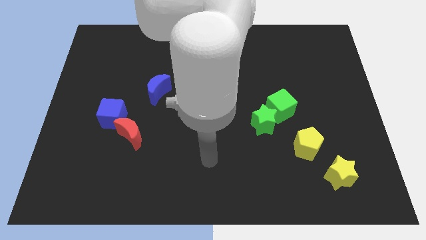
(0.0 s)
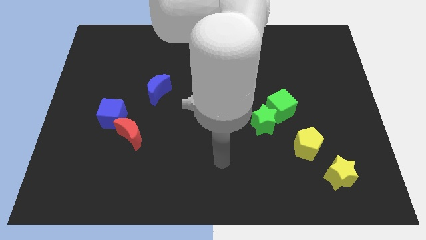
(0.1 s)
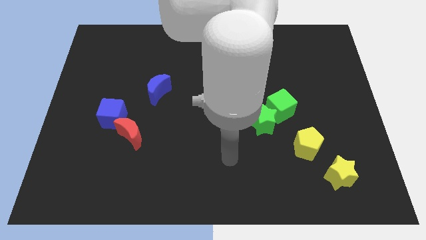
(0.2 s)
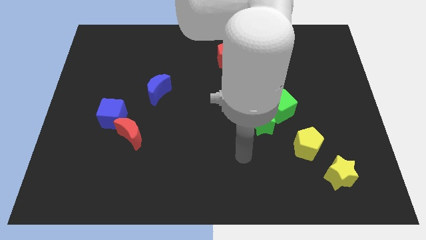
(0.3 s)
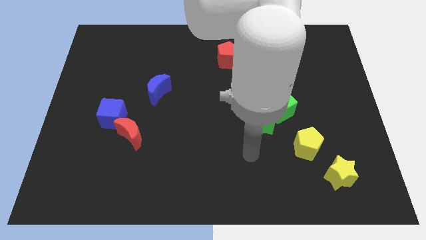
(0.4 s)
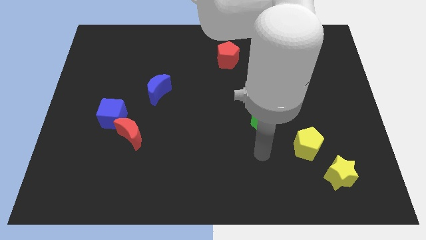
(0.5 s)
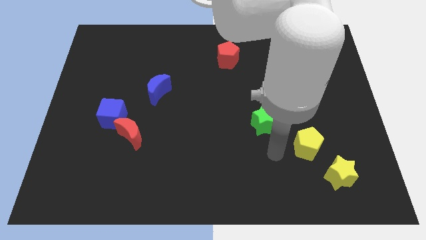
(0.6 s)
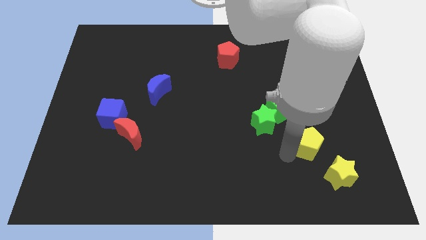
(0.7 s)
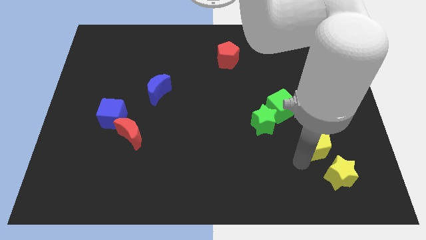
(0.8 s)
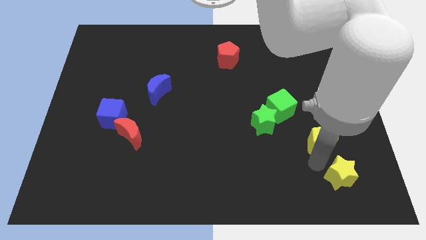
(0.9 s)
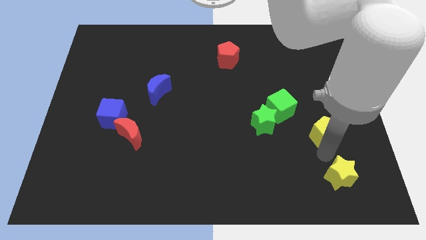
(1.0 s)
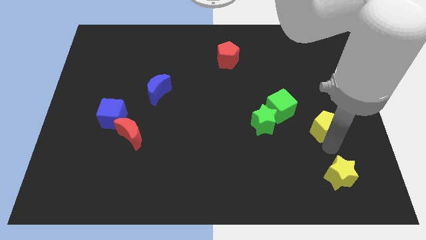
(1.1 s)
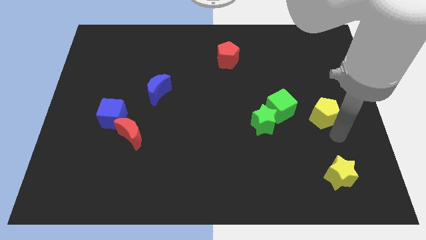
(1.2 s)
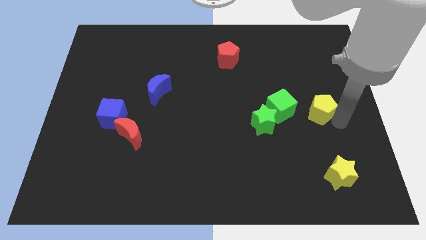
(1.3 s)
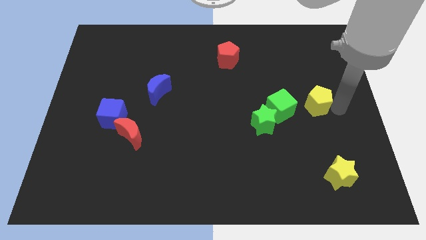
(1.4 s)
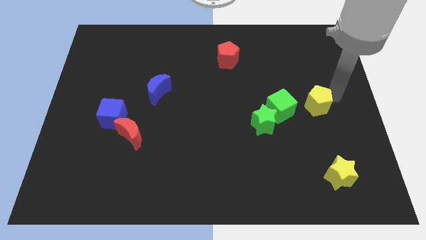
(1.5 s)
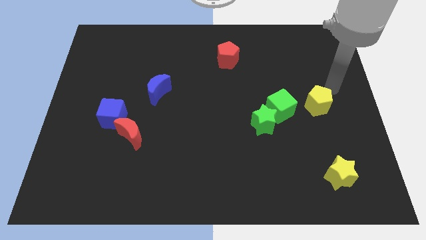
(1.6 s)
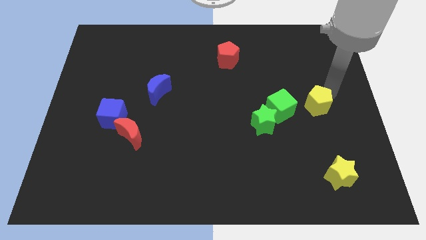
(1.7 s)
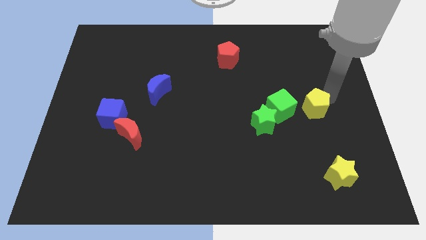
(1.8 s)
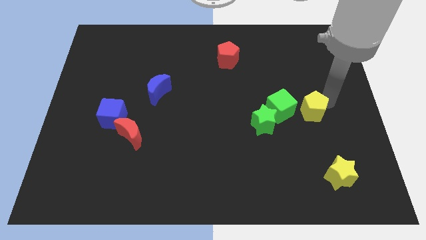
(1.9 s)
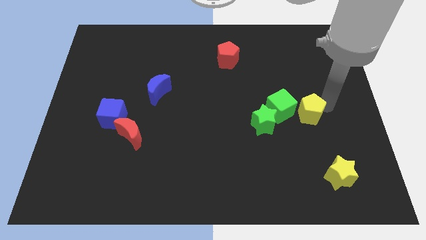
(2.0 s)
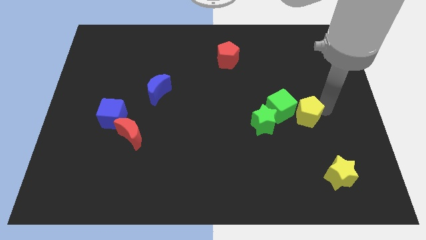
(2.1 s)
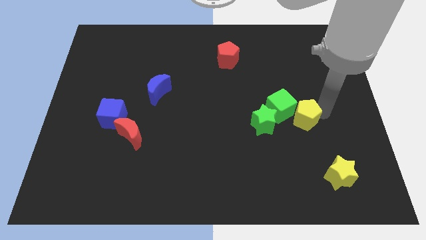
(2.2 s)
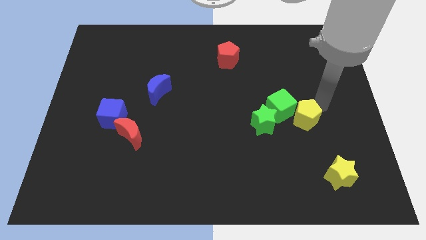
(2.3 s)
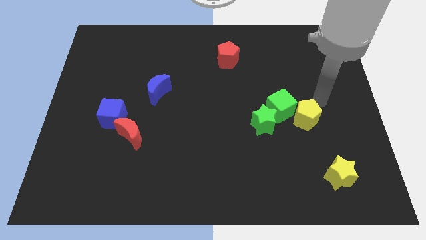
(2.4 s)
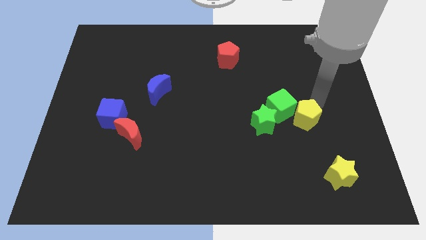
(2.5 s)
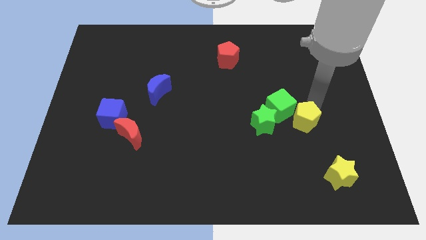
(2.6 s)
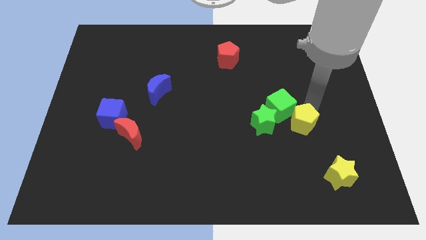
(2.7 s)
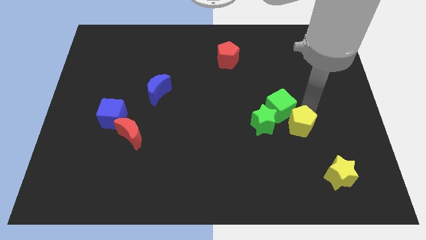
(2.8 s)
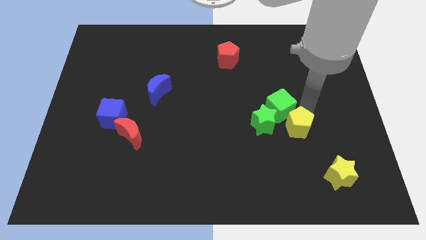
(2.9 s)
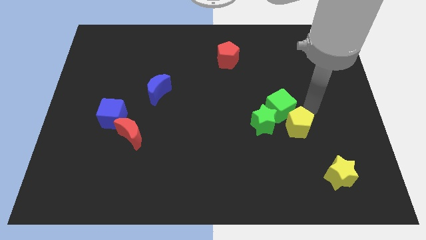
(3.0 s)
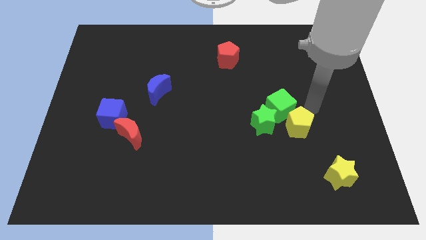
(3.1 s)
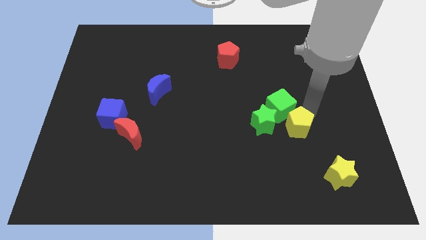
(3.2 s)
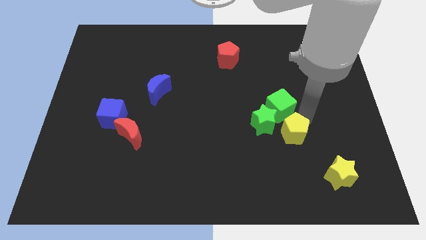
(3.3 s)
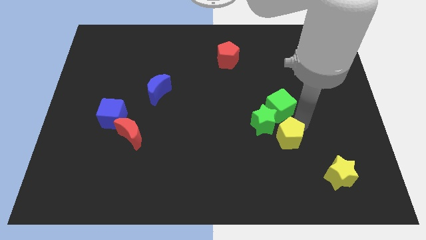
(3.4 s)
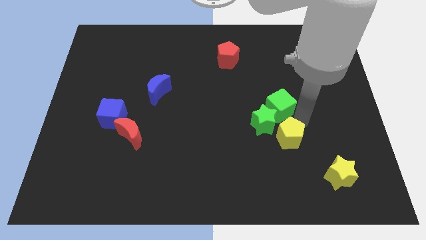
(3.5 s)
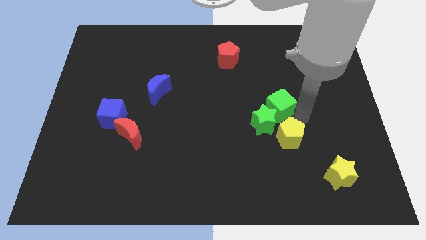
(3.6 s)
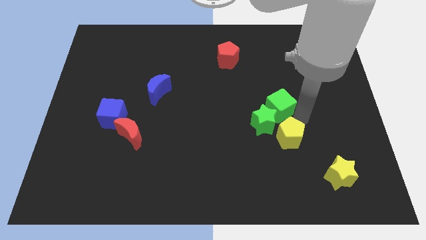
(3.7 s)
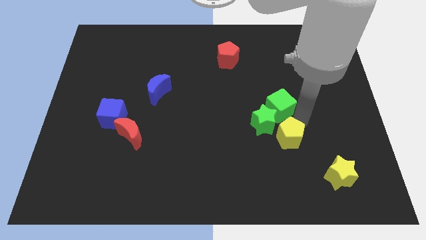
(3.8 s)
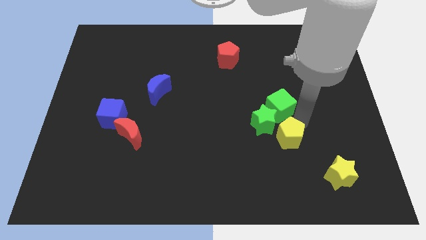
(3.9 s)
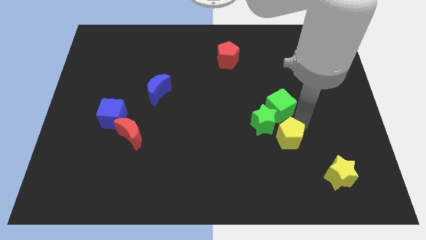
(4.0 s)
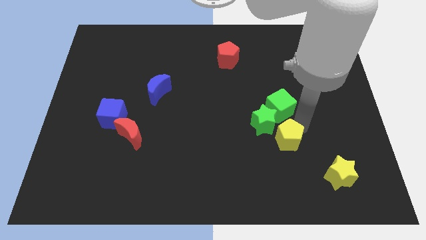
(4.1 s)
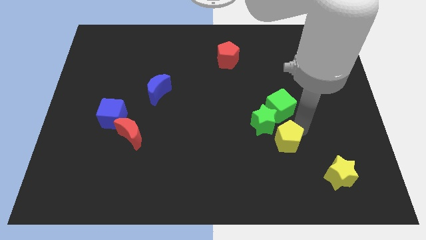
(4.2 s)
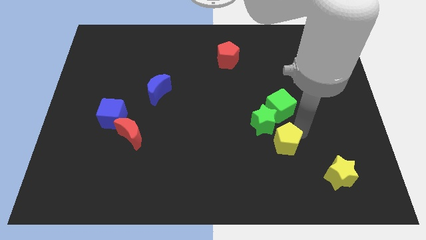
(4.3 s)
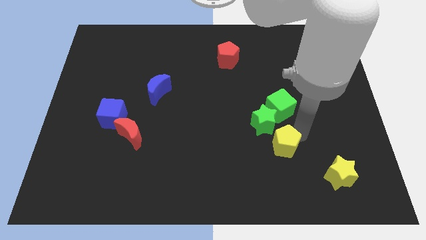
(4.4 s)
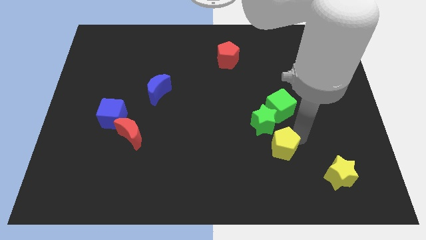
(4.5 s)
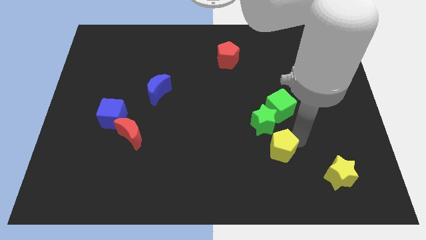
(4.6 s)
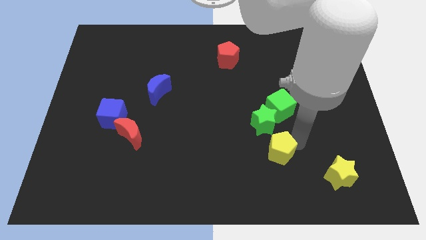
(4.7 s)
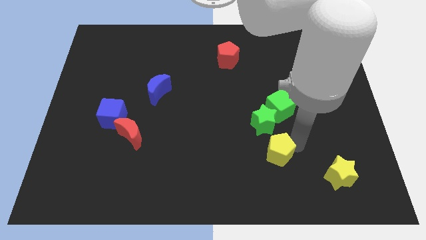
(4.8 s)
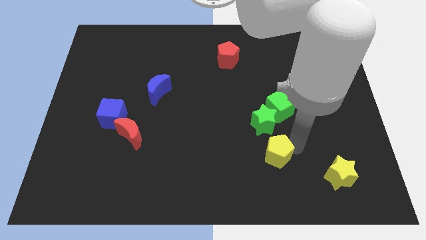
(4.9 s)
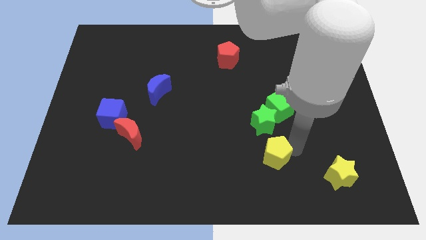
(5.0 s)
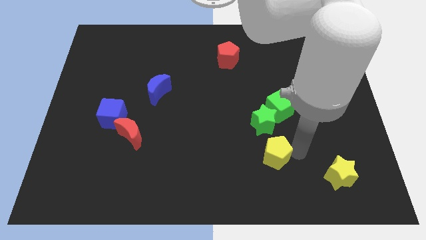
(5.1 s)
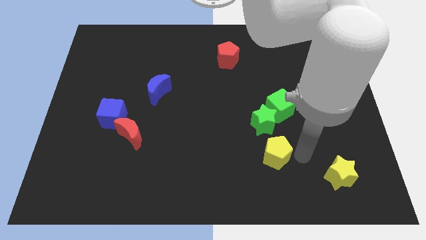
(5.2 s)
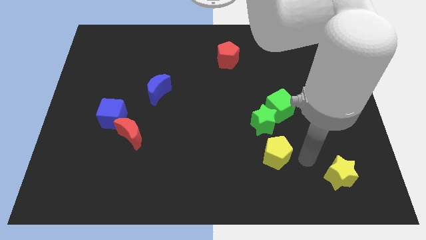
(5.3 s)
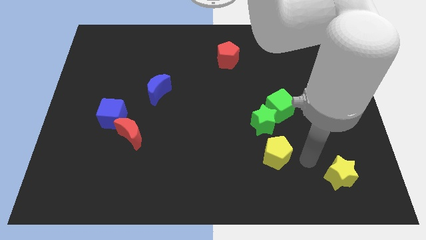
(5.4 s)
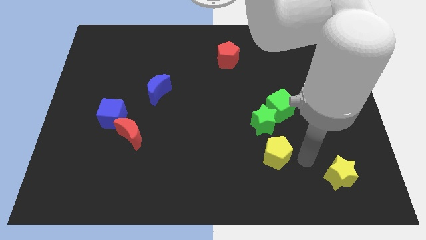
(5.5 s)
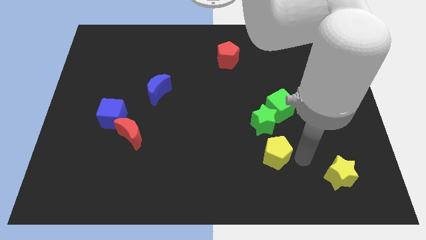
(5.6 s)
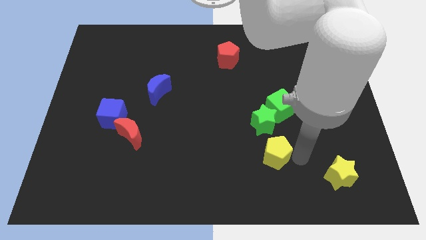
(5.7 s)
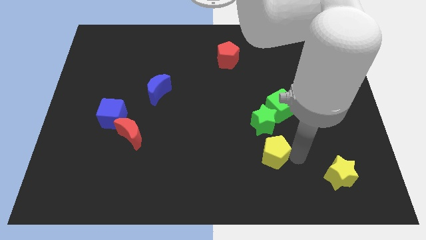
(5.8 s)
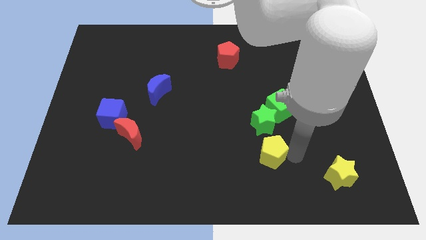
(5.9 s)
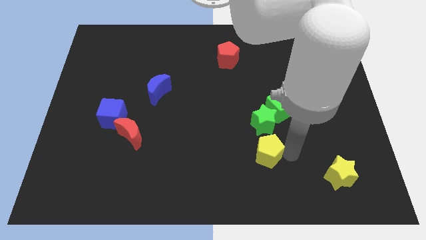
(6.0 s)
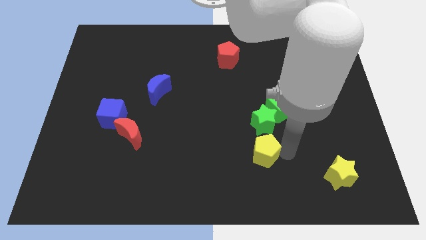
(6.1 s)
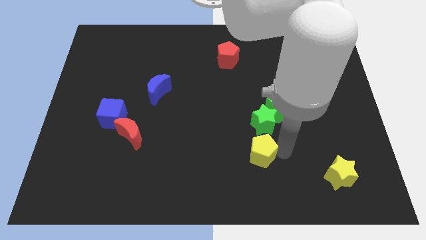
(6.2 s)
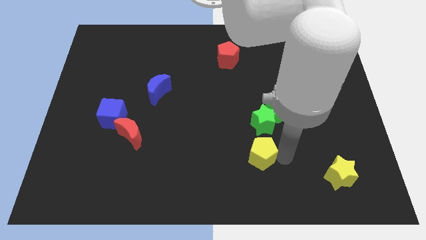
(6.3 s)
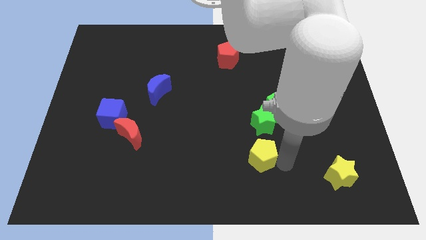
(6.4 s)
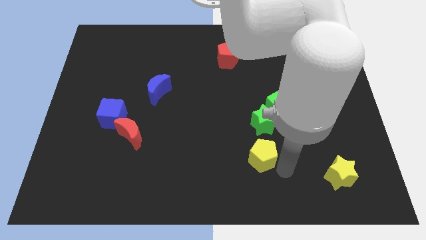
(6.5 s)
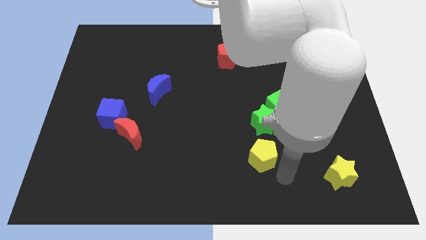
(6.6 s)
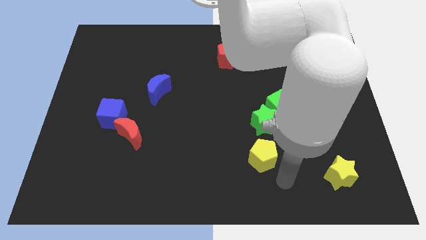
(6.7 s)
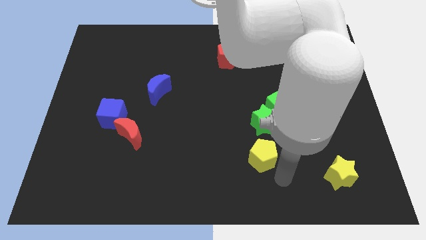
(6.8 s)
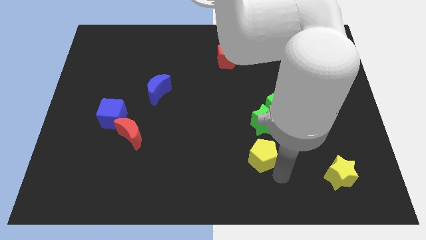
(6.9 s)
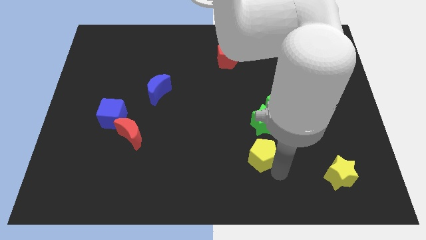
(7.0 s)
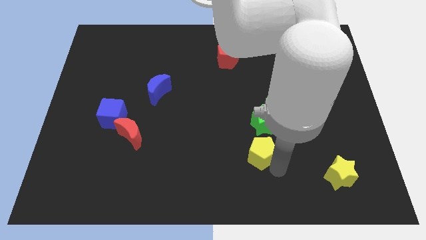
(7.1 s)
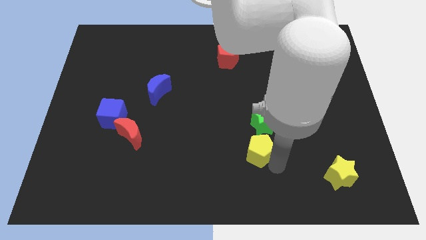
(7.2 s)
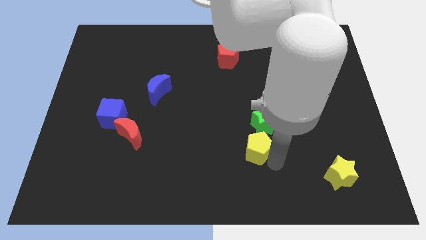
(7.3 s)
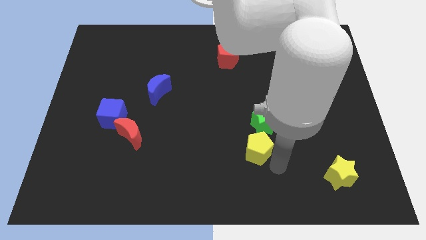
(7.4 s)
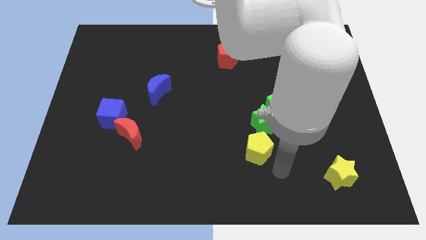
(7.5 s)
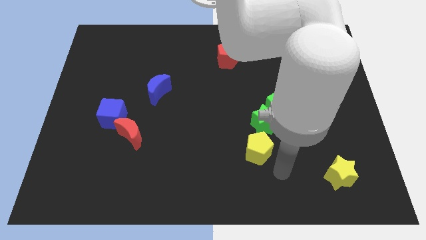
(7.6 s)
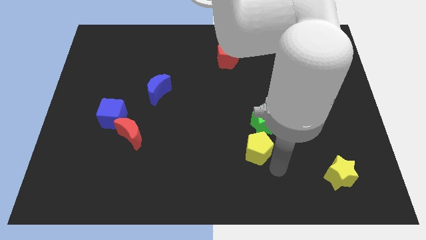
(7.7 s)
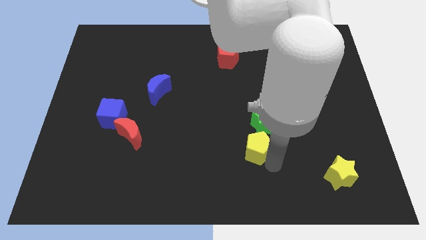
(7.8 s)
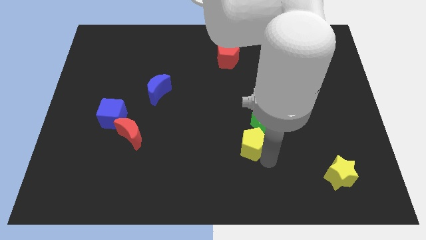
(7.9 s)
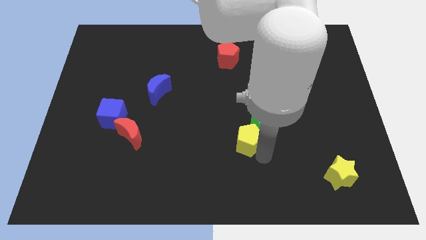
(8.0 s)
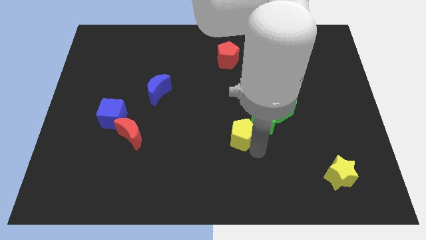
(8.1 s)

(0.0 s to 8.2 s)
push the yellow pentagon to the middle
